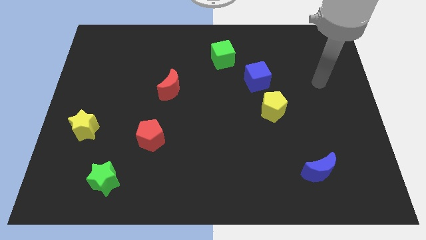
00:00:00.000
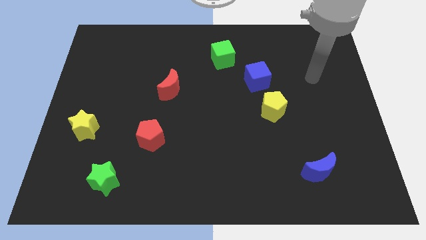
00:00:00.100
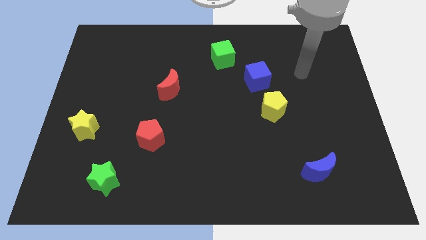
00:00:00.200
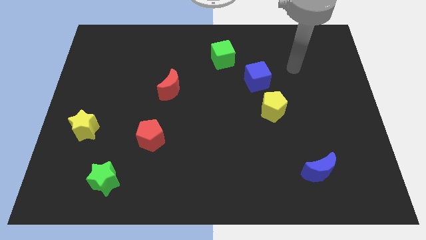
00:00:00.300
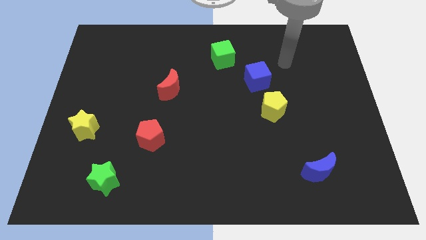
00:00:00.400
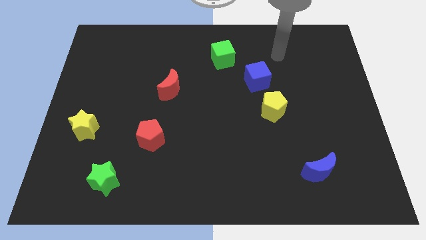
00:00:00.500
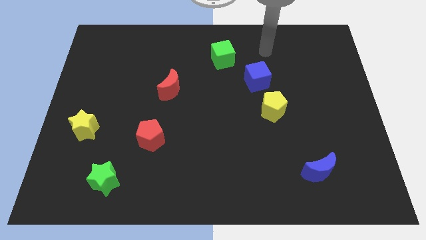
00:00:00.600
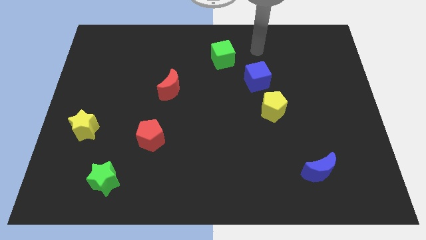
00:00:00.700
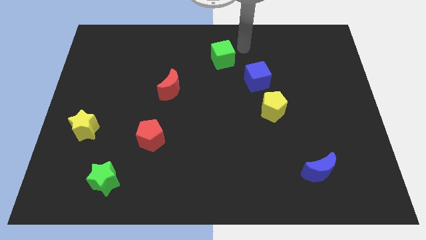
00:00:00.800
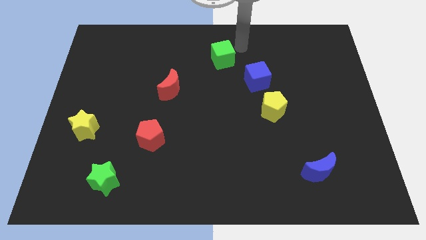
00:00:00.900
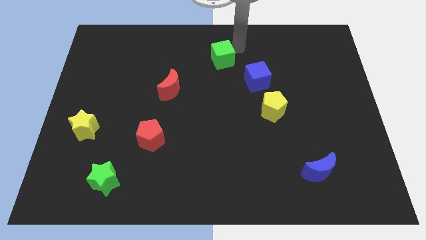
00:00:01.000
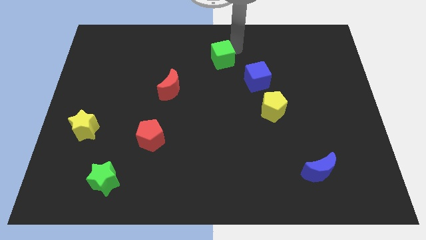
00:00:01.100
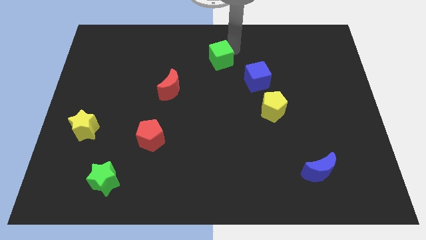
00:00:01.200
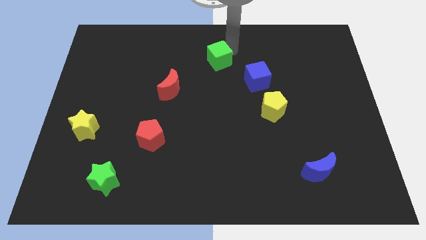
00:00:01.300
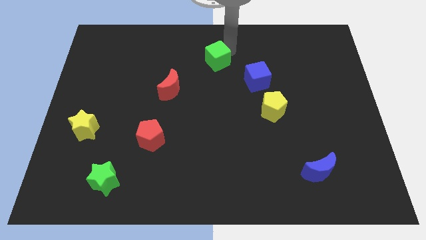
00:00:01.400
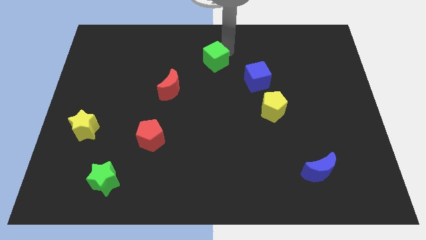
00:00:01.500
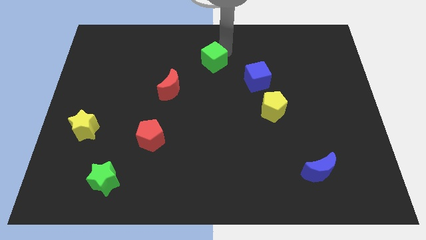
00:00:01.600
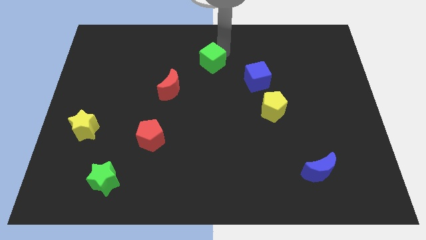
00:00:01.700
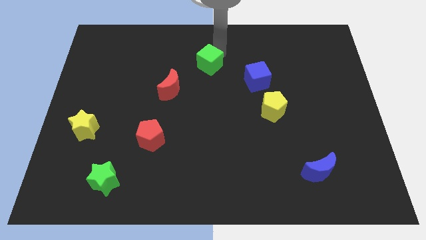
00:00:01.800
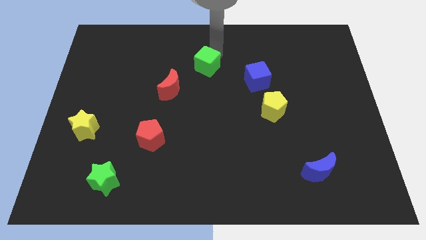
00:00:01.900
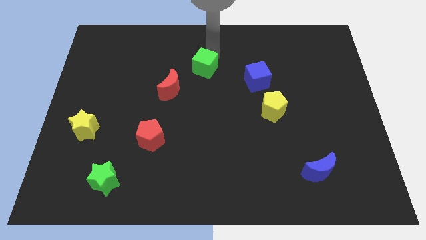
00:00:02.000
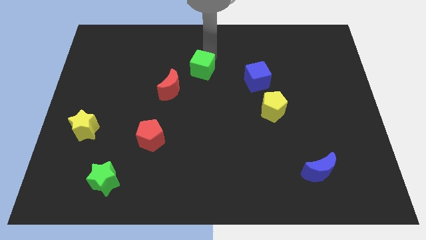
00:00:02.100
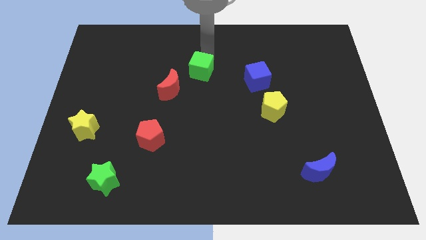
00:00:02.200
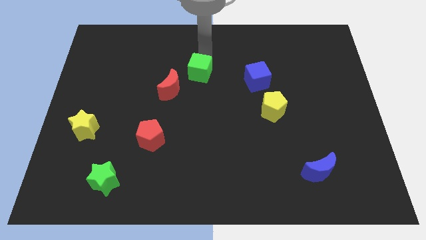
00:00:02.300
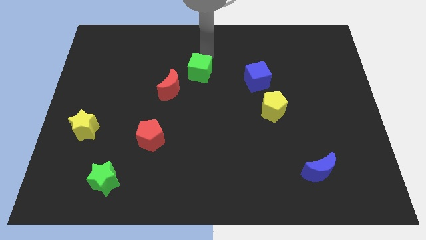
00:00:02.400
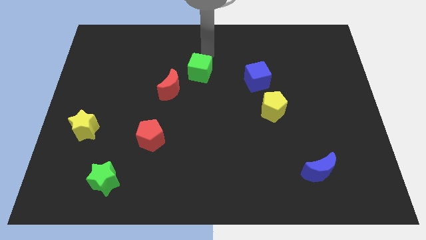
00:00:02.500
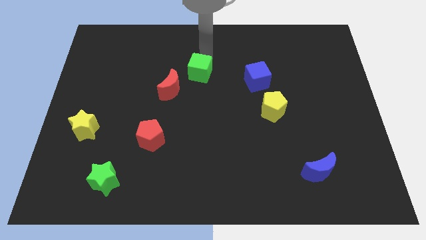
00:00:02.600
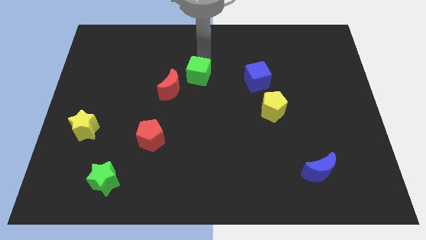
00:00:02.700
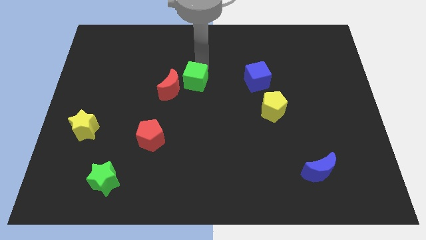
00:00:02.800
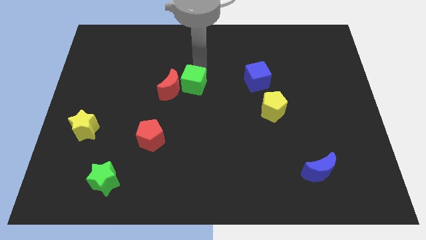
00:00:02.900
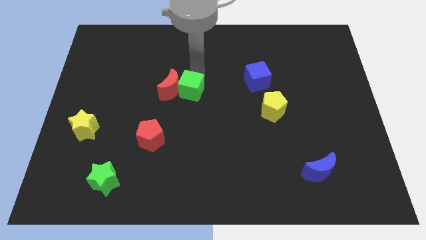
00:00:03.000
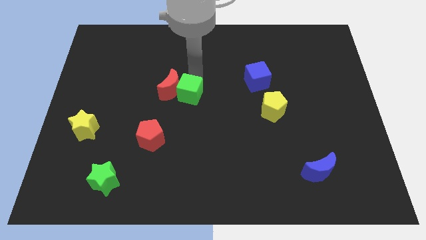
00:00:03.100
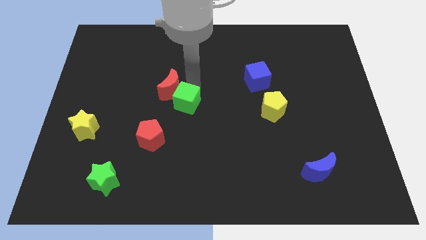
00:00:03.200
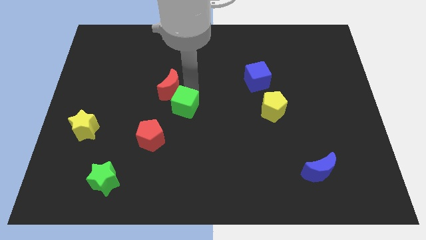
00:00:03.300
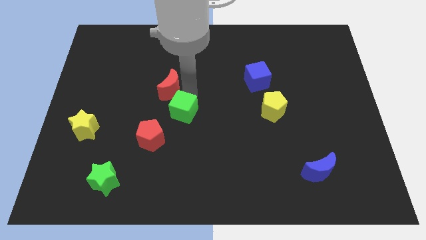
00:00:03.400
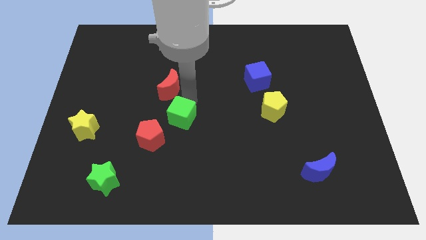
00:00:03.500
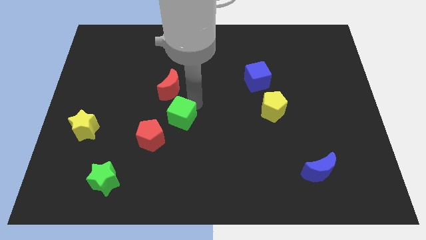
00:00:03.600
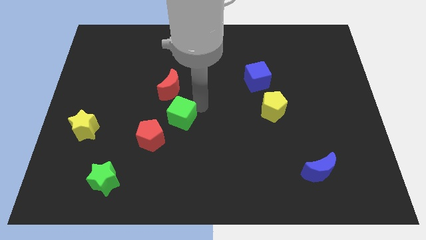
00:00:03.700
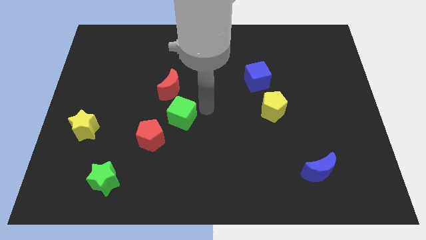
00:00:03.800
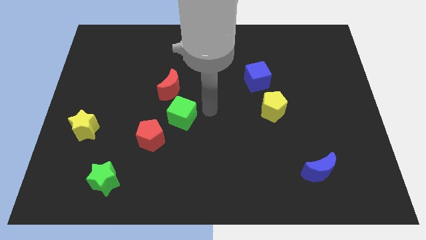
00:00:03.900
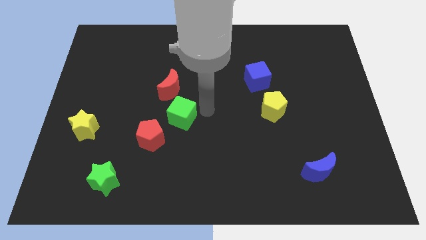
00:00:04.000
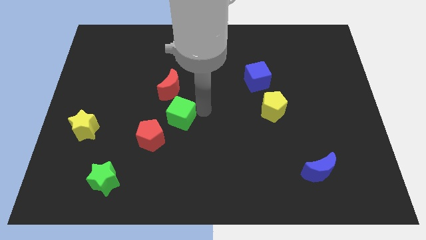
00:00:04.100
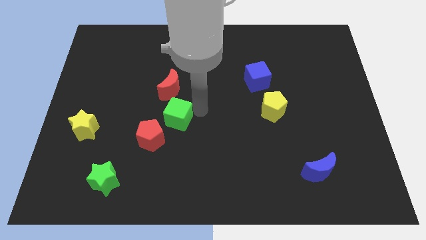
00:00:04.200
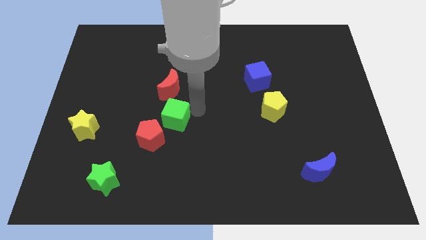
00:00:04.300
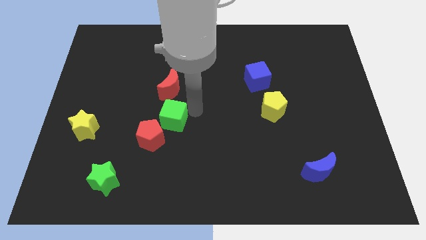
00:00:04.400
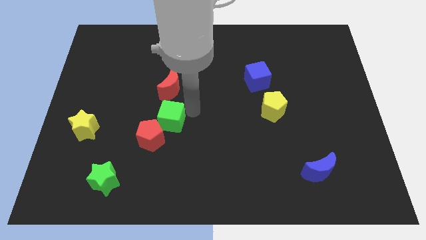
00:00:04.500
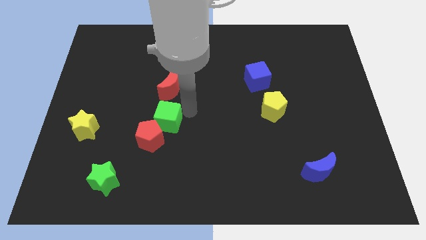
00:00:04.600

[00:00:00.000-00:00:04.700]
push the green cube next to the red pentagon

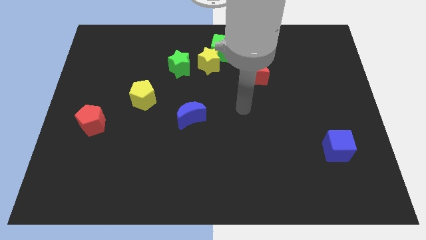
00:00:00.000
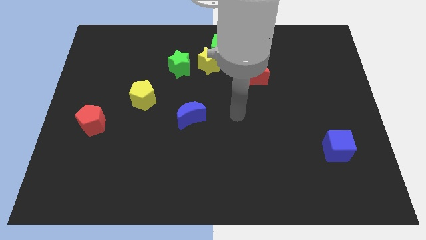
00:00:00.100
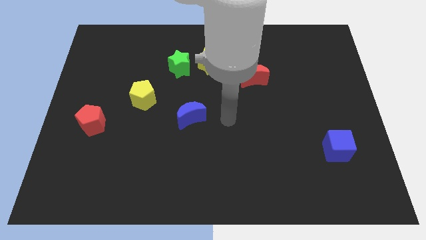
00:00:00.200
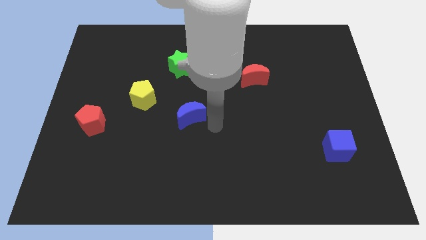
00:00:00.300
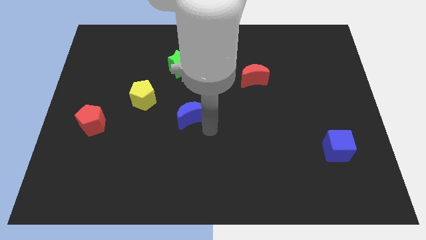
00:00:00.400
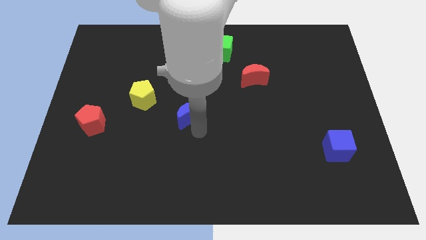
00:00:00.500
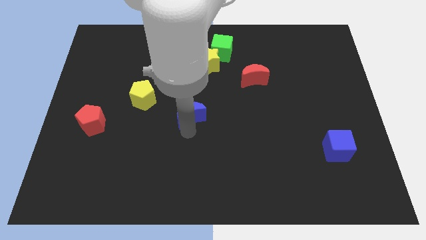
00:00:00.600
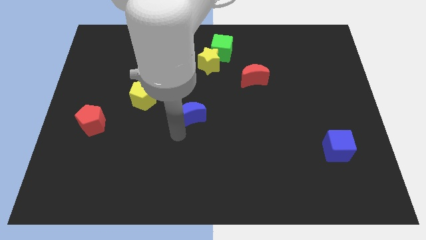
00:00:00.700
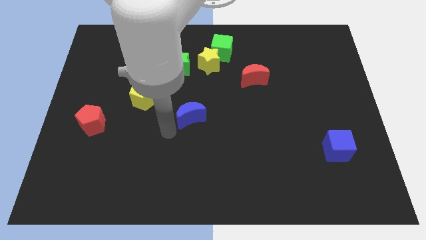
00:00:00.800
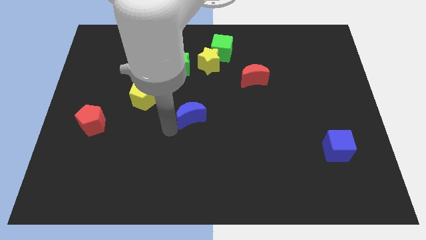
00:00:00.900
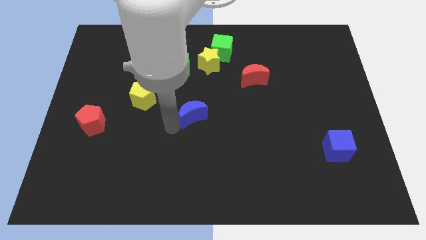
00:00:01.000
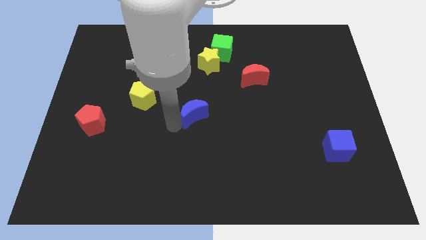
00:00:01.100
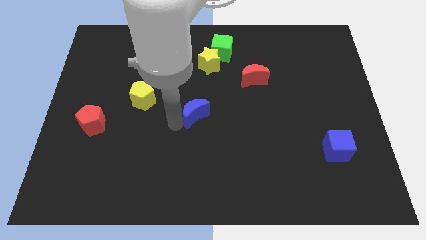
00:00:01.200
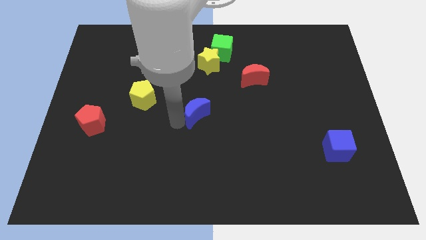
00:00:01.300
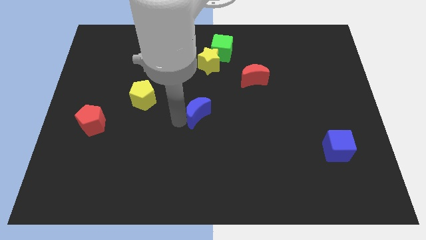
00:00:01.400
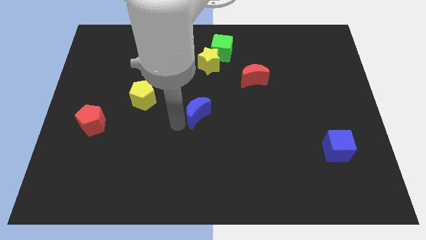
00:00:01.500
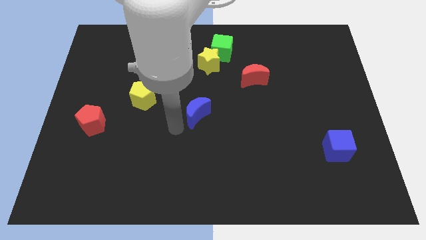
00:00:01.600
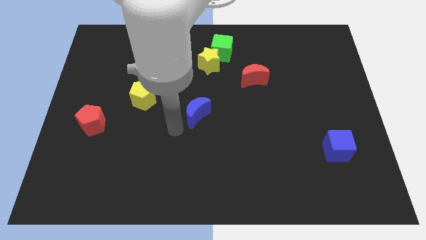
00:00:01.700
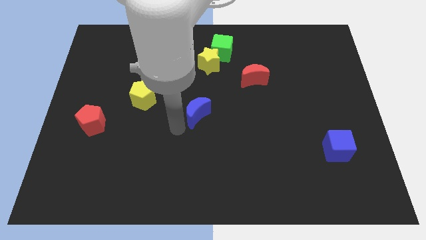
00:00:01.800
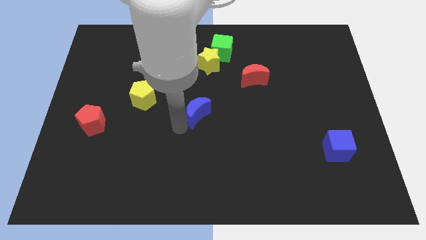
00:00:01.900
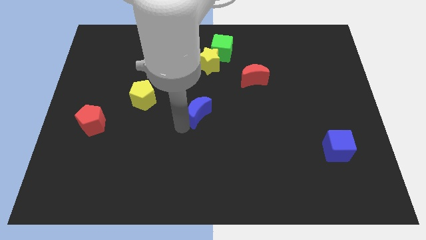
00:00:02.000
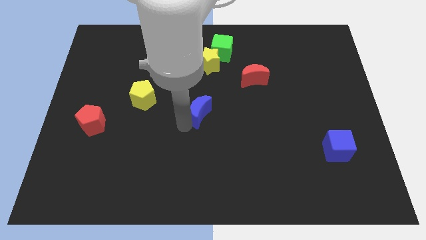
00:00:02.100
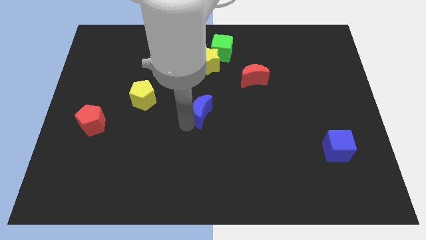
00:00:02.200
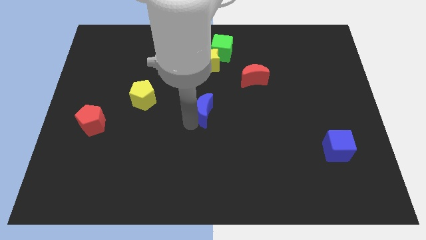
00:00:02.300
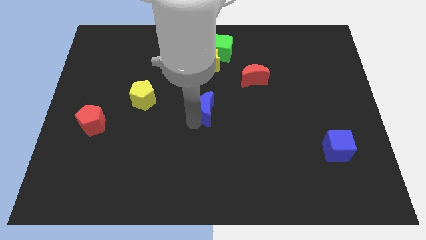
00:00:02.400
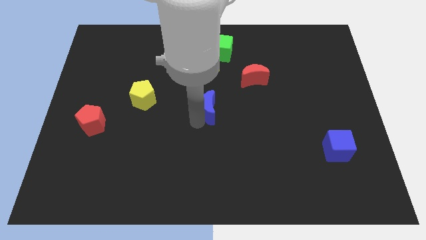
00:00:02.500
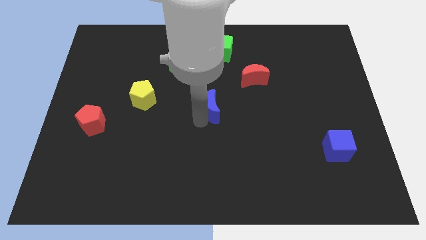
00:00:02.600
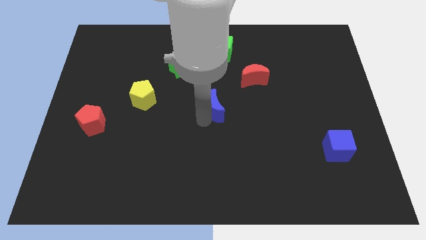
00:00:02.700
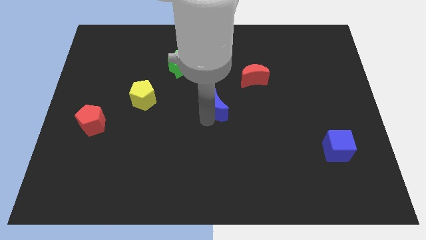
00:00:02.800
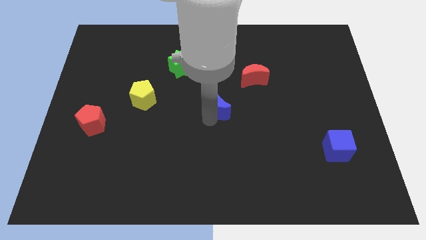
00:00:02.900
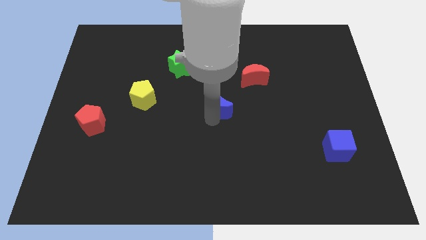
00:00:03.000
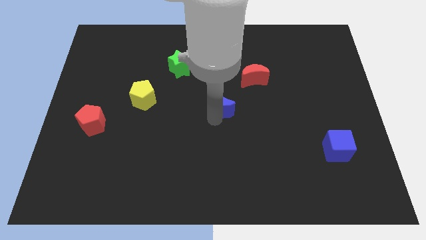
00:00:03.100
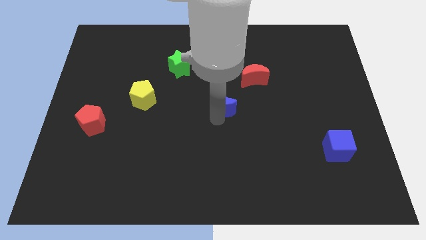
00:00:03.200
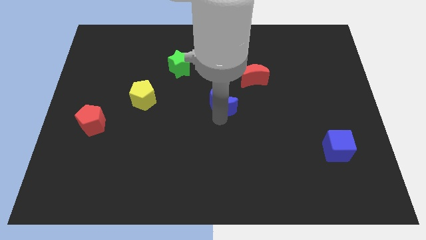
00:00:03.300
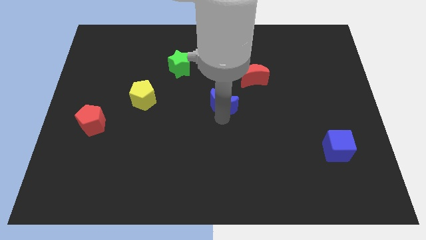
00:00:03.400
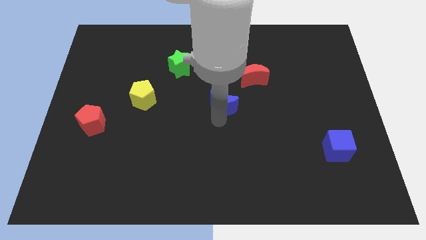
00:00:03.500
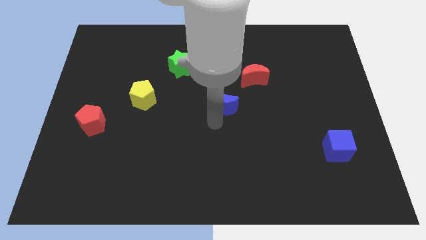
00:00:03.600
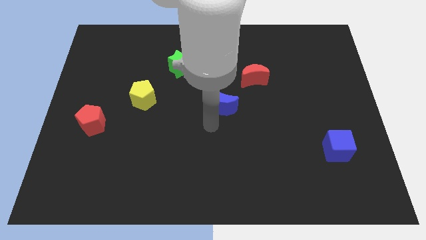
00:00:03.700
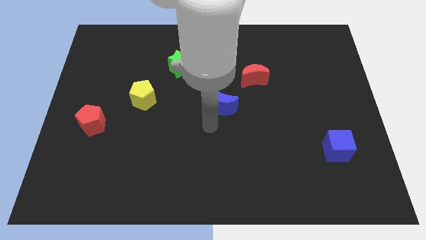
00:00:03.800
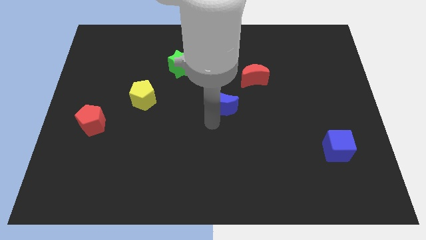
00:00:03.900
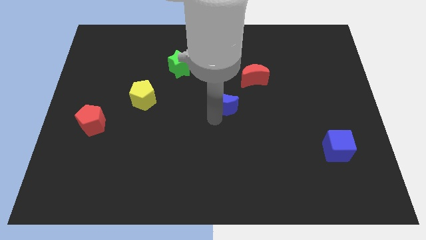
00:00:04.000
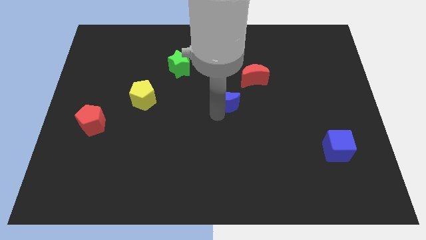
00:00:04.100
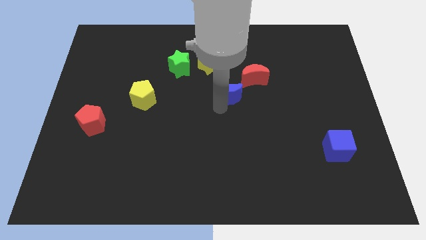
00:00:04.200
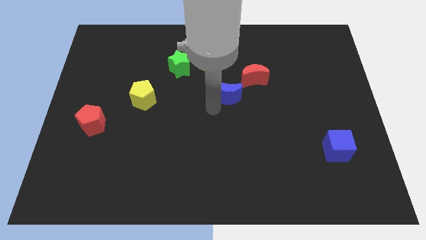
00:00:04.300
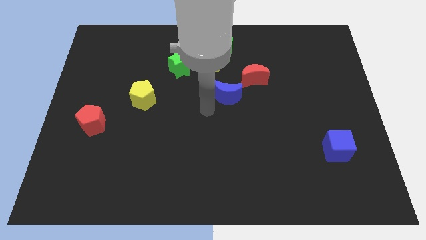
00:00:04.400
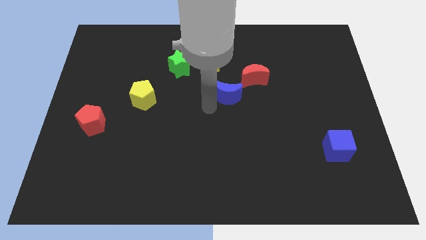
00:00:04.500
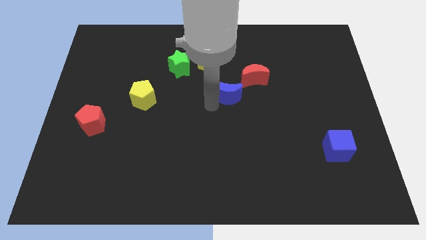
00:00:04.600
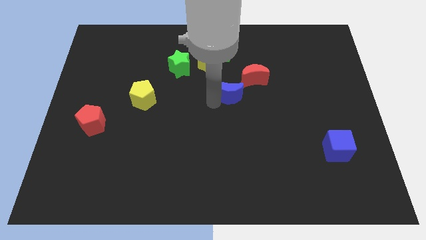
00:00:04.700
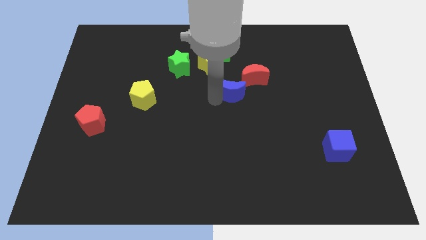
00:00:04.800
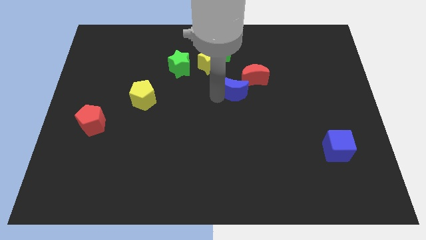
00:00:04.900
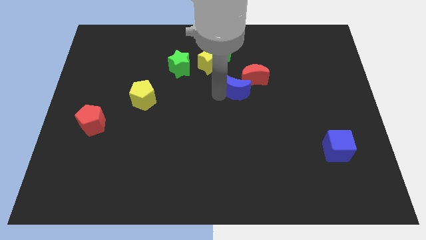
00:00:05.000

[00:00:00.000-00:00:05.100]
slide the blue moon to the red moon
